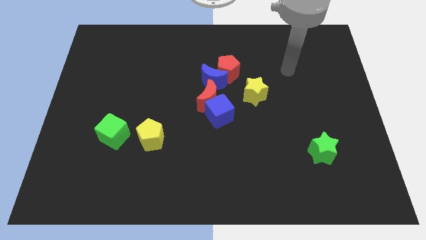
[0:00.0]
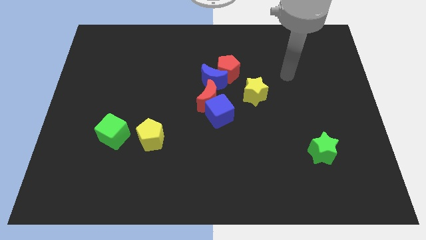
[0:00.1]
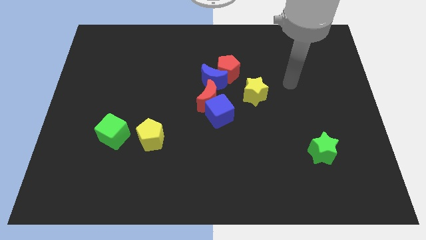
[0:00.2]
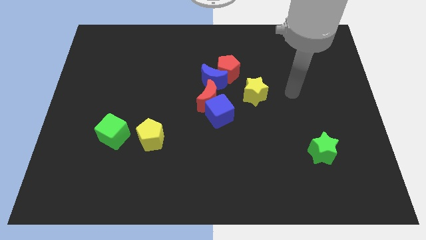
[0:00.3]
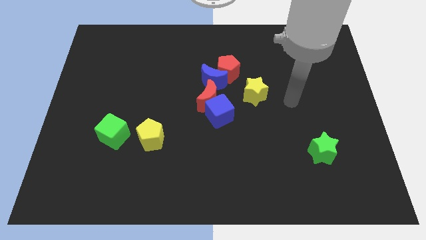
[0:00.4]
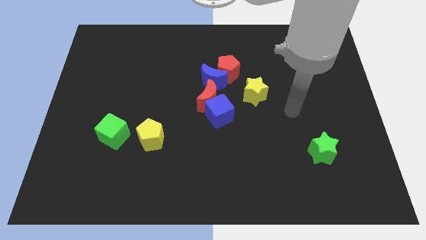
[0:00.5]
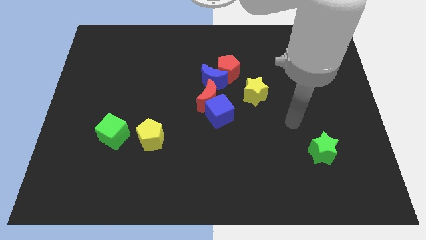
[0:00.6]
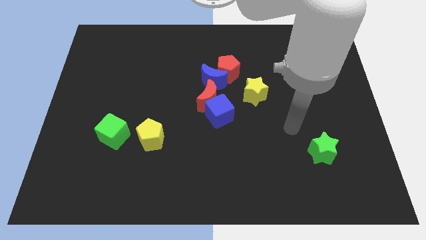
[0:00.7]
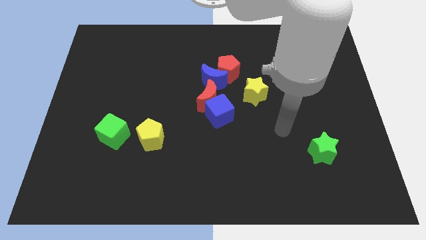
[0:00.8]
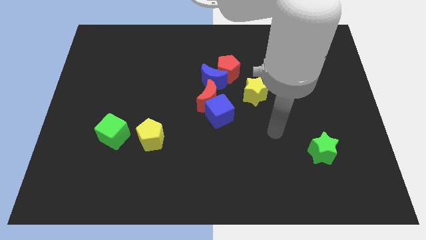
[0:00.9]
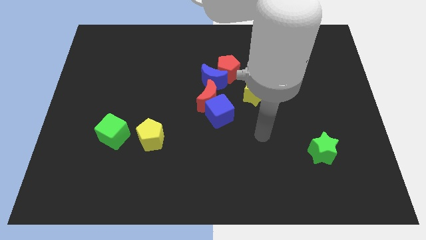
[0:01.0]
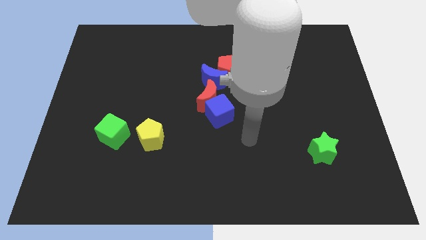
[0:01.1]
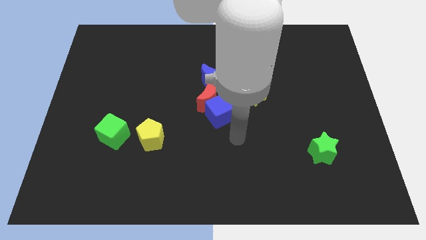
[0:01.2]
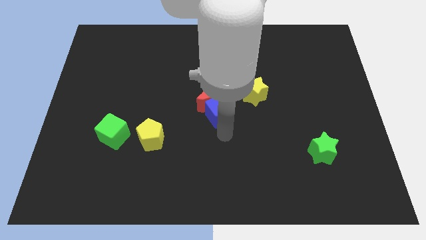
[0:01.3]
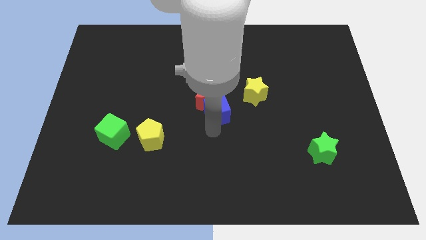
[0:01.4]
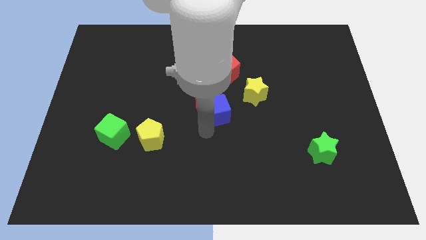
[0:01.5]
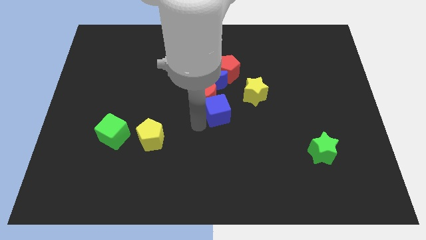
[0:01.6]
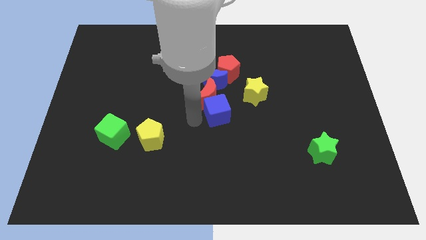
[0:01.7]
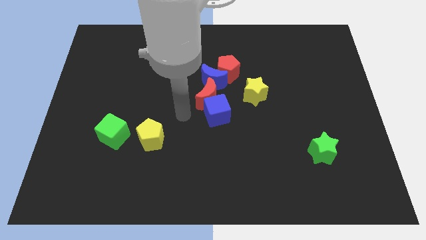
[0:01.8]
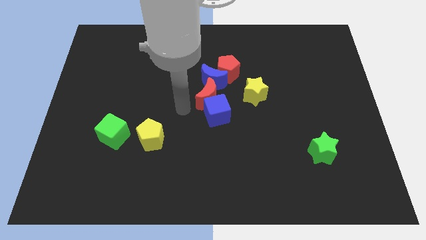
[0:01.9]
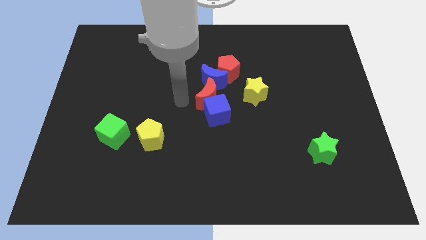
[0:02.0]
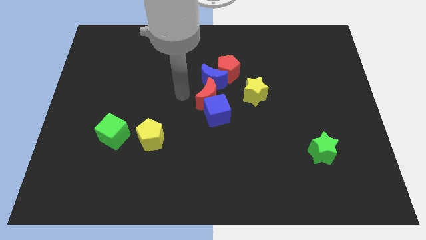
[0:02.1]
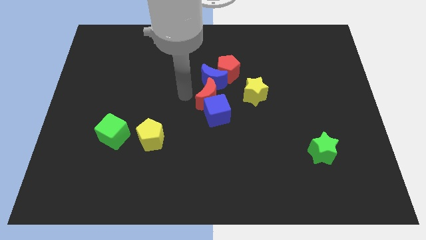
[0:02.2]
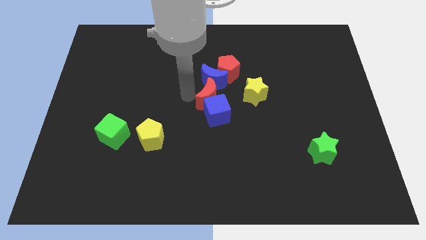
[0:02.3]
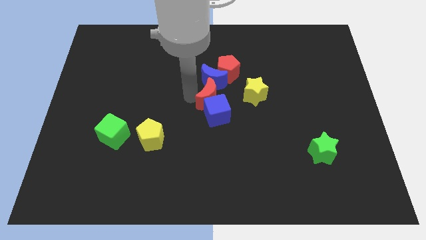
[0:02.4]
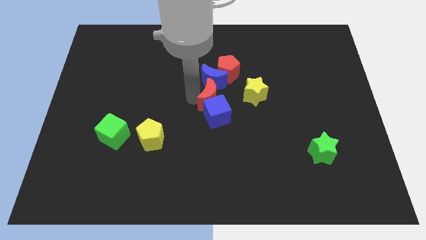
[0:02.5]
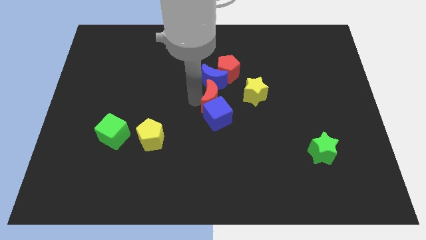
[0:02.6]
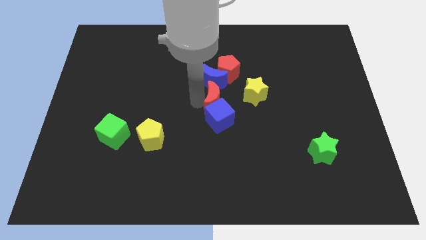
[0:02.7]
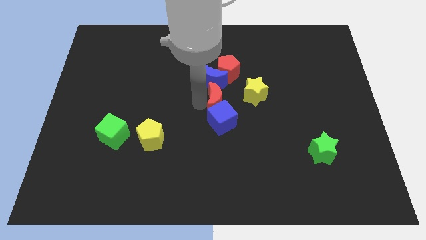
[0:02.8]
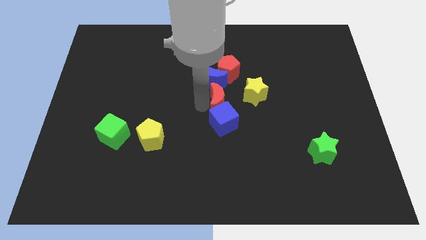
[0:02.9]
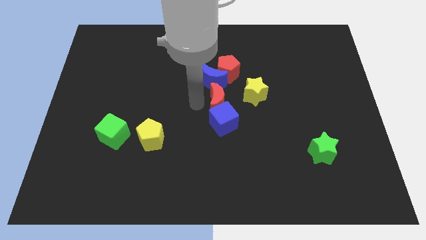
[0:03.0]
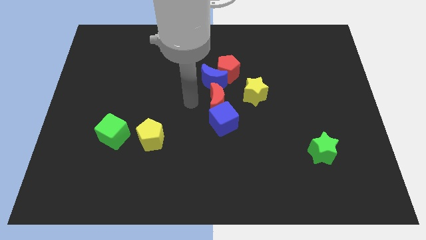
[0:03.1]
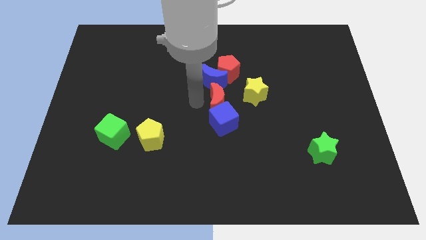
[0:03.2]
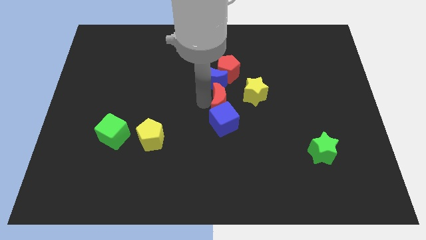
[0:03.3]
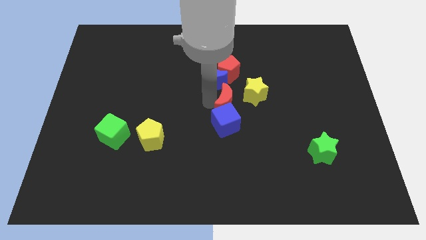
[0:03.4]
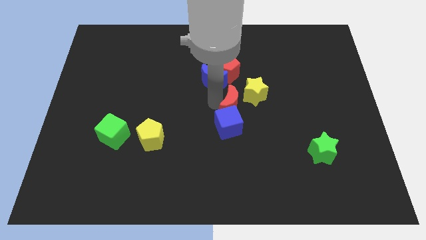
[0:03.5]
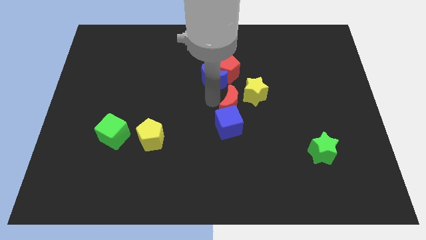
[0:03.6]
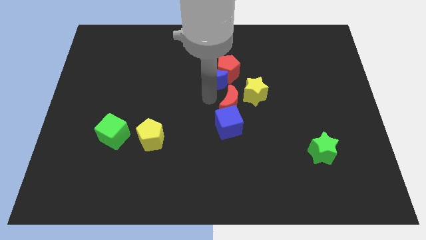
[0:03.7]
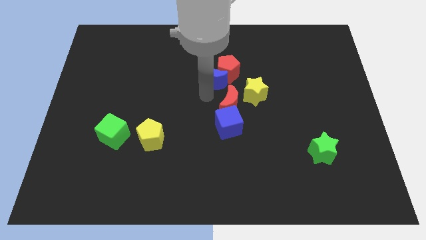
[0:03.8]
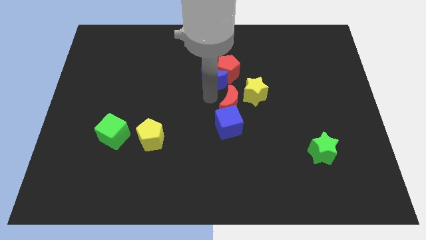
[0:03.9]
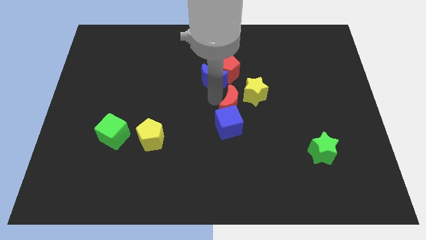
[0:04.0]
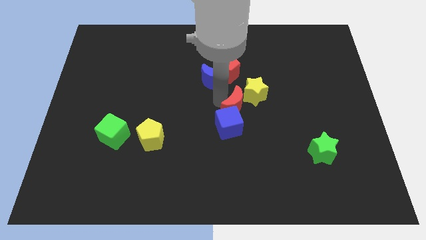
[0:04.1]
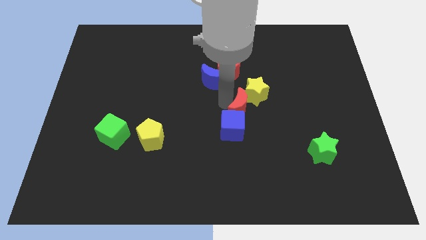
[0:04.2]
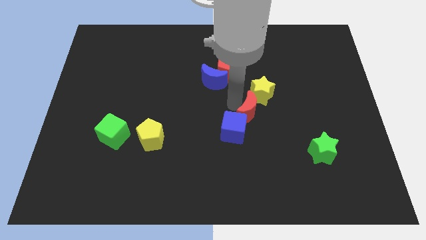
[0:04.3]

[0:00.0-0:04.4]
slightly push the red moon downwards and then right

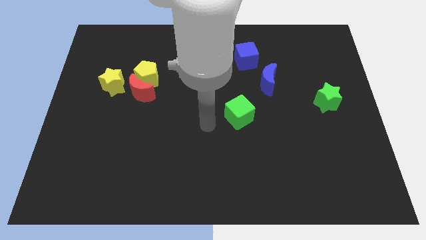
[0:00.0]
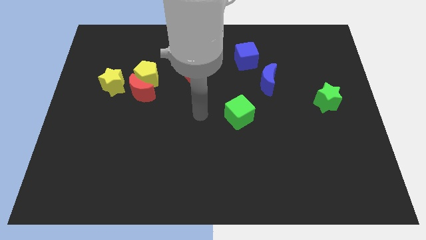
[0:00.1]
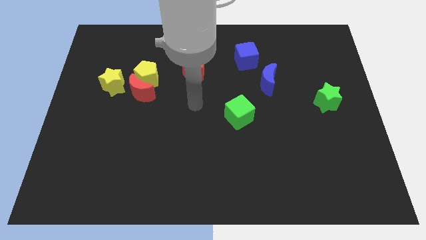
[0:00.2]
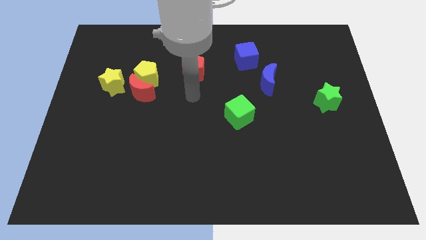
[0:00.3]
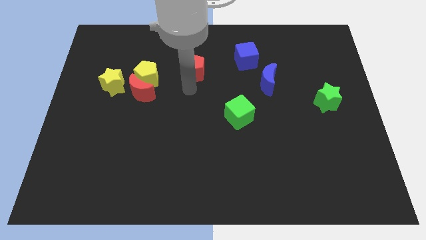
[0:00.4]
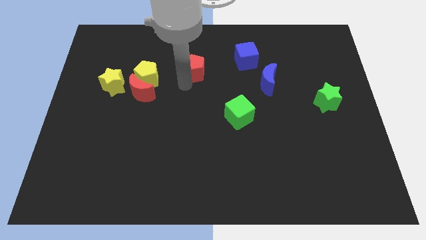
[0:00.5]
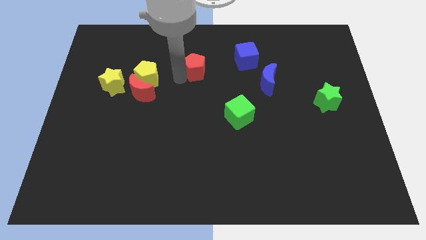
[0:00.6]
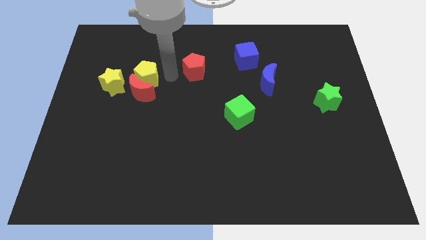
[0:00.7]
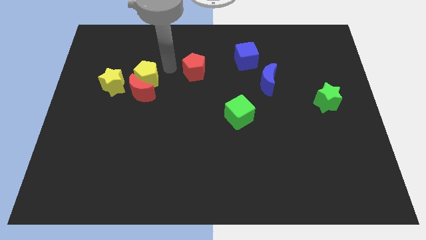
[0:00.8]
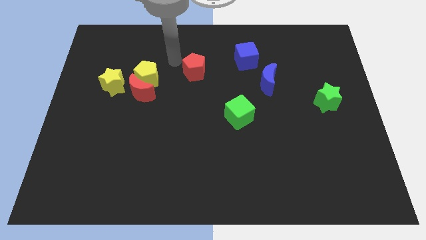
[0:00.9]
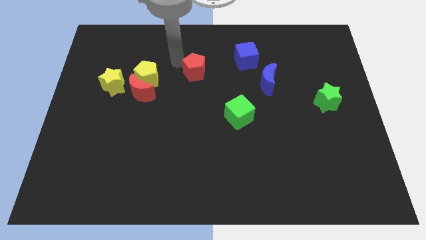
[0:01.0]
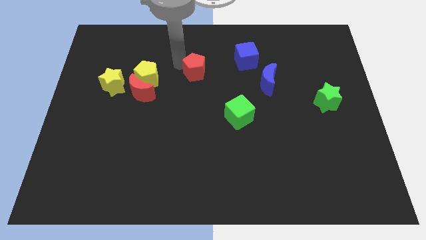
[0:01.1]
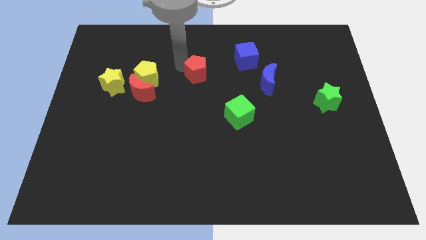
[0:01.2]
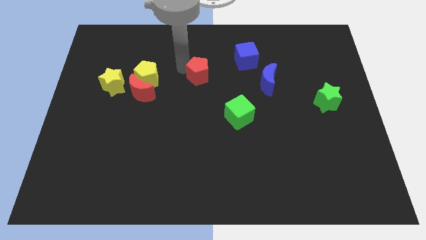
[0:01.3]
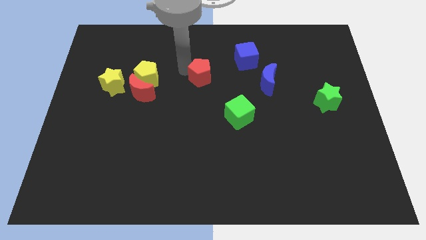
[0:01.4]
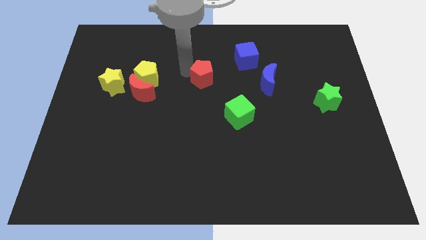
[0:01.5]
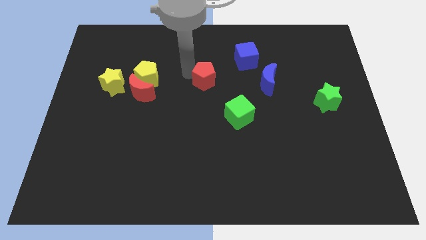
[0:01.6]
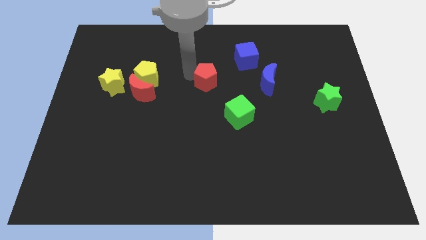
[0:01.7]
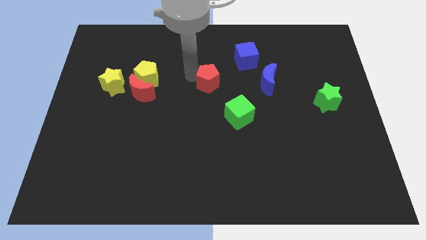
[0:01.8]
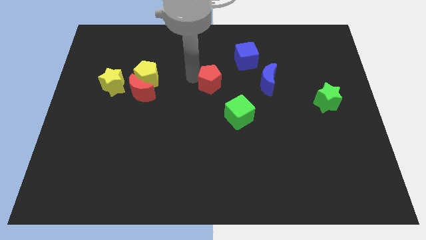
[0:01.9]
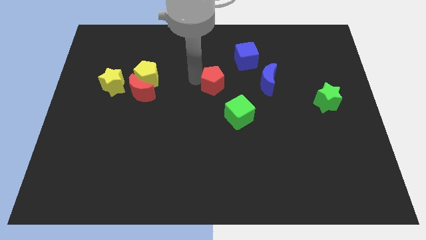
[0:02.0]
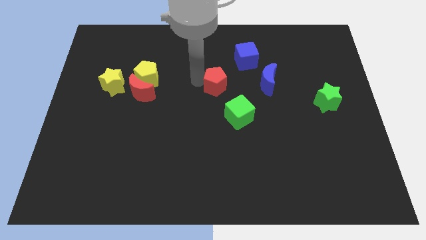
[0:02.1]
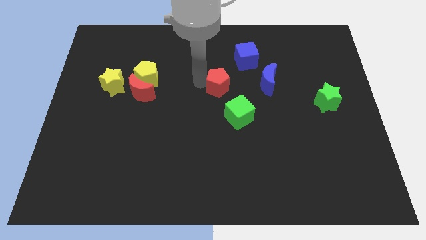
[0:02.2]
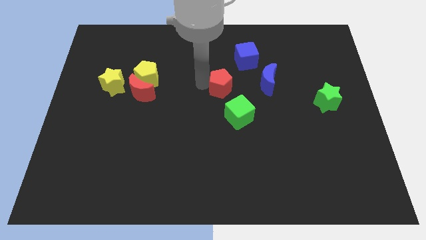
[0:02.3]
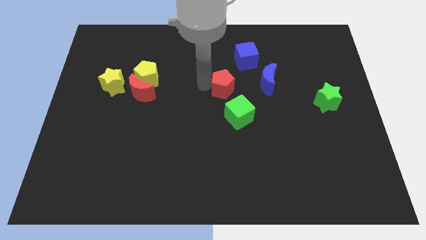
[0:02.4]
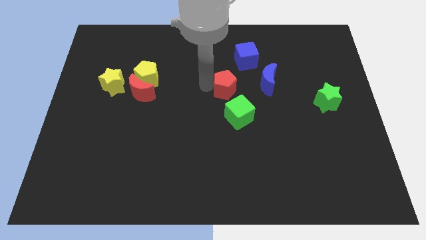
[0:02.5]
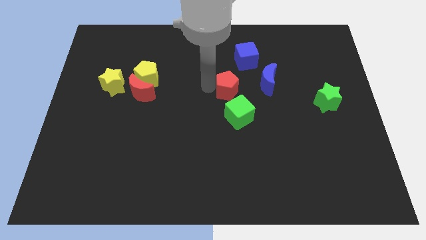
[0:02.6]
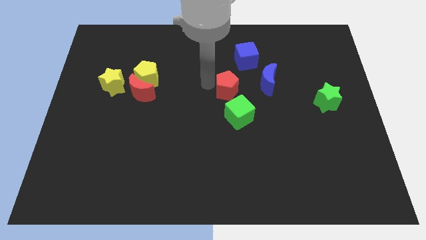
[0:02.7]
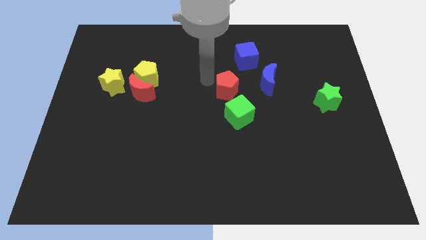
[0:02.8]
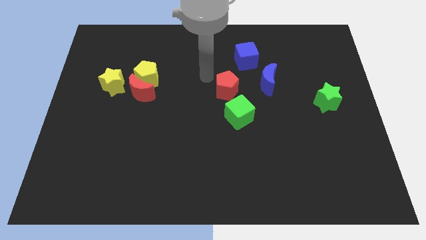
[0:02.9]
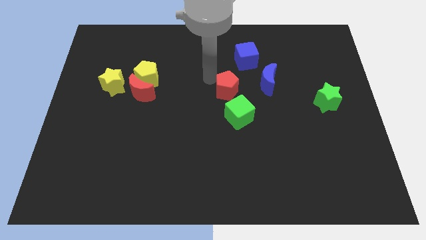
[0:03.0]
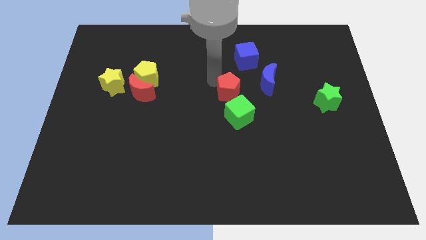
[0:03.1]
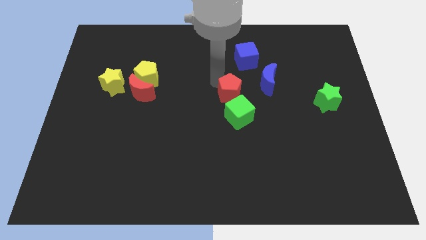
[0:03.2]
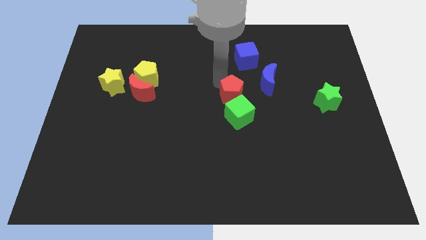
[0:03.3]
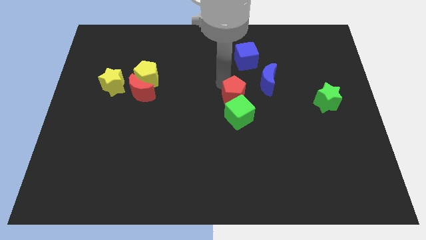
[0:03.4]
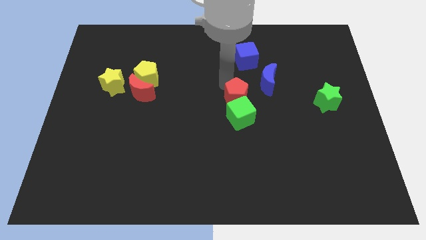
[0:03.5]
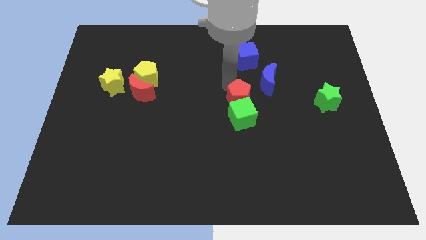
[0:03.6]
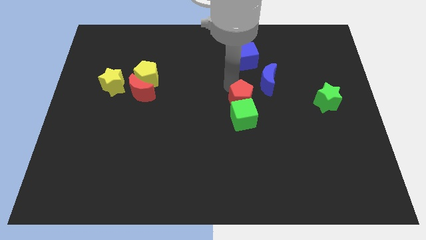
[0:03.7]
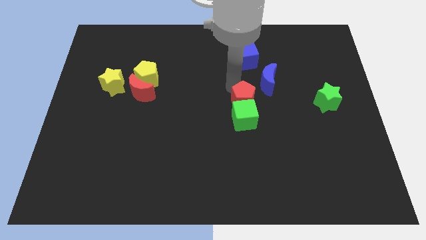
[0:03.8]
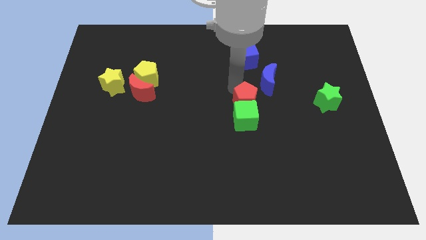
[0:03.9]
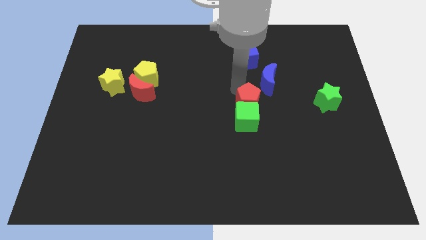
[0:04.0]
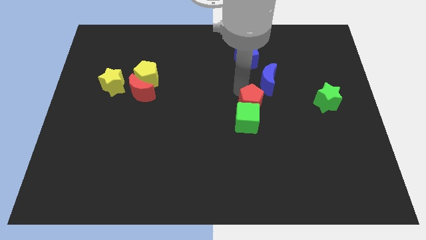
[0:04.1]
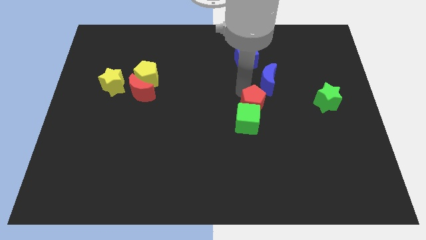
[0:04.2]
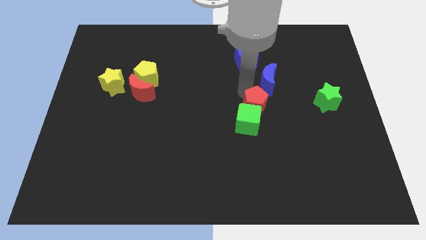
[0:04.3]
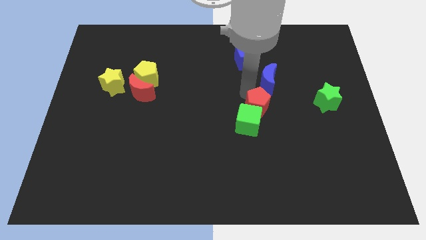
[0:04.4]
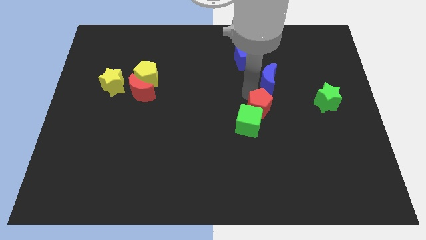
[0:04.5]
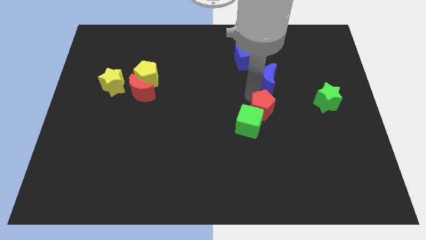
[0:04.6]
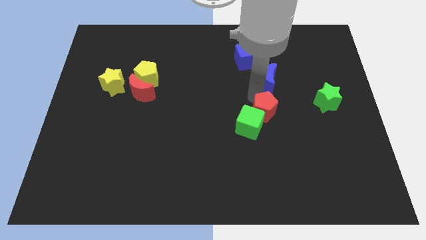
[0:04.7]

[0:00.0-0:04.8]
push the red pentagon down and right
